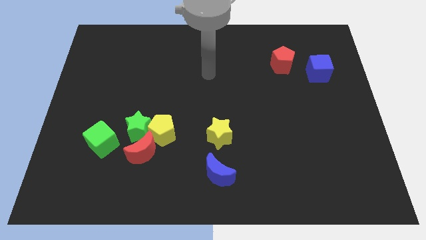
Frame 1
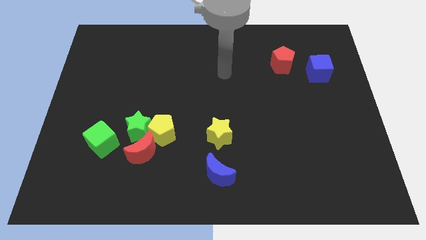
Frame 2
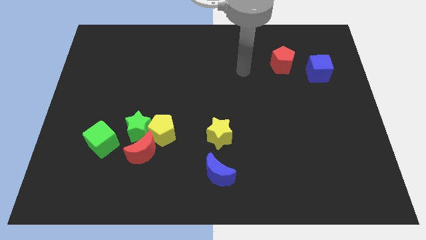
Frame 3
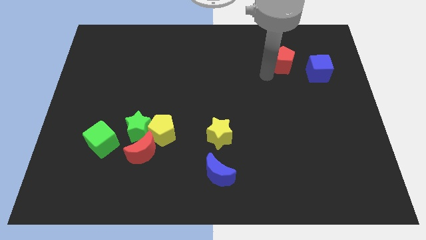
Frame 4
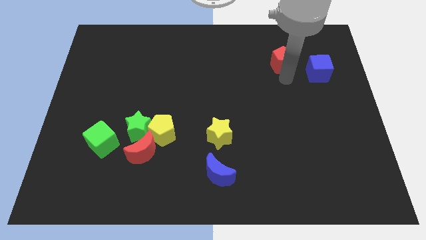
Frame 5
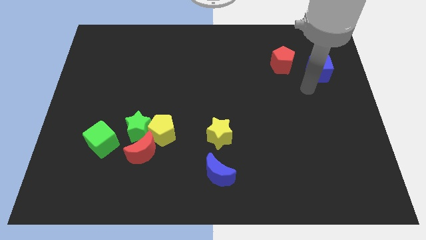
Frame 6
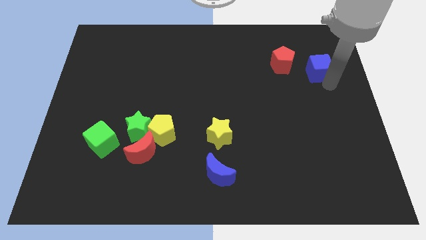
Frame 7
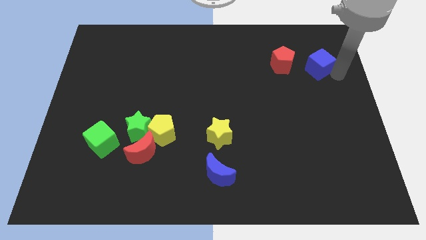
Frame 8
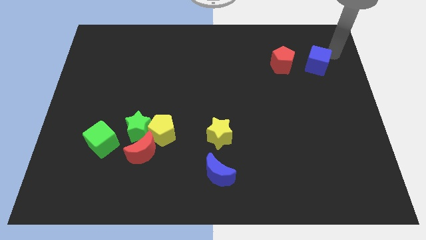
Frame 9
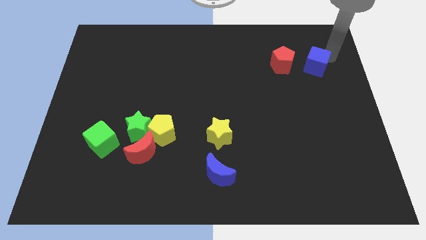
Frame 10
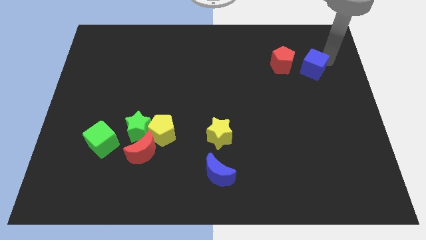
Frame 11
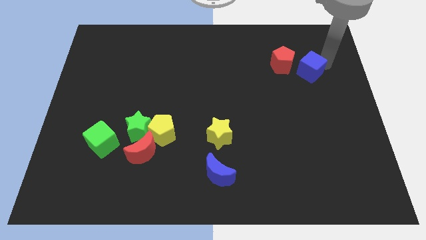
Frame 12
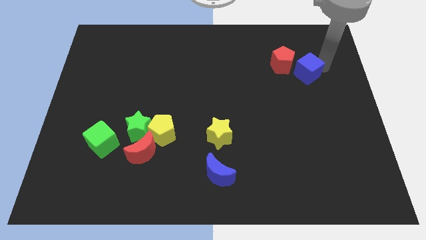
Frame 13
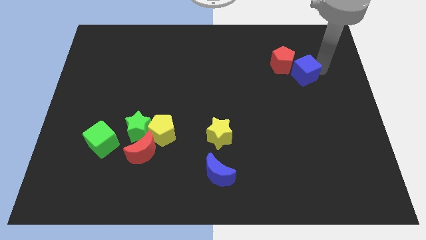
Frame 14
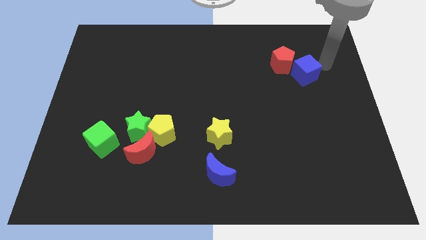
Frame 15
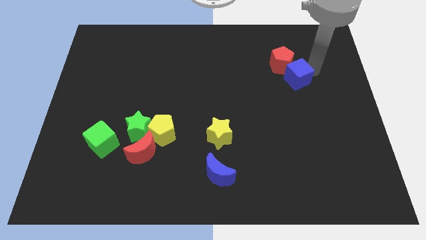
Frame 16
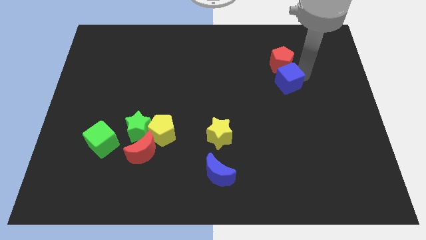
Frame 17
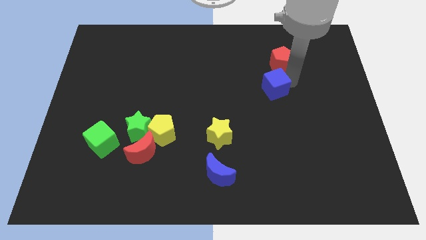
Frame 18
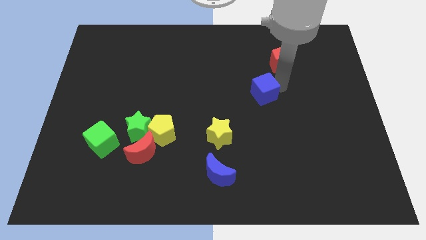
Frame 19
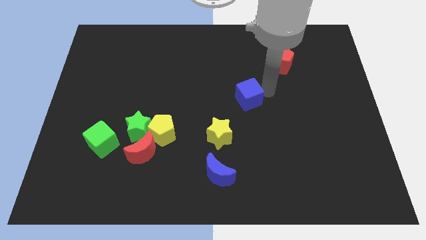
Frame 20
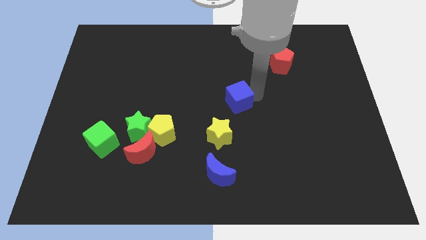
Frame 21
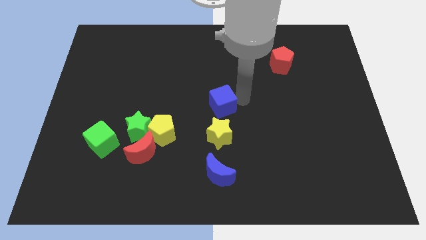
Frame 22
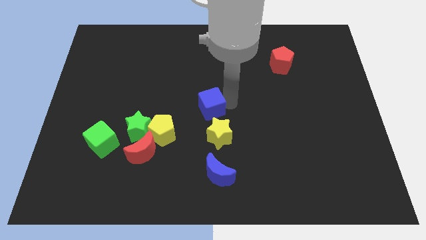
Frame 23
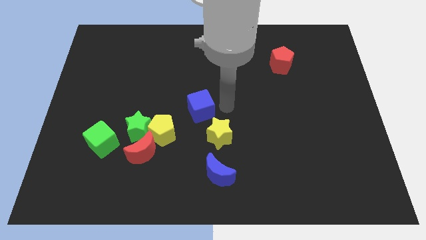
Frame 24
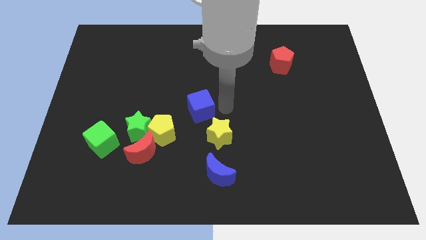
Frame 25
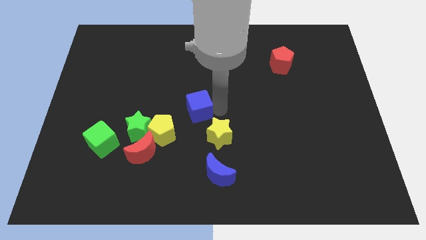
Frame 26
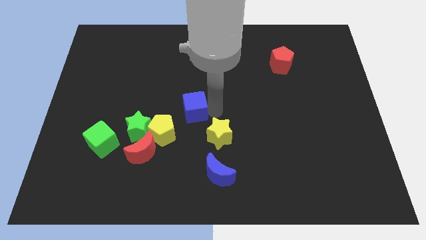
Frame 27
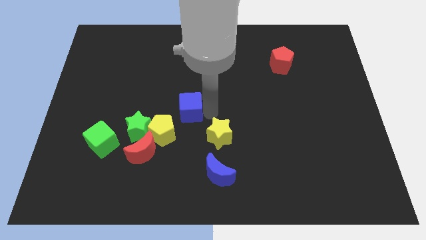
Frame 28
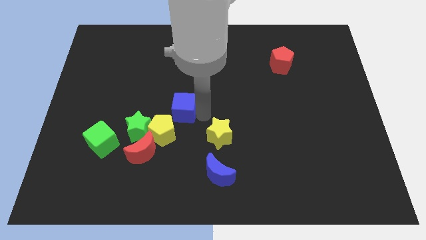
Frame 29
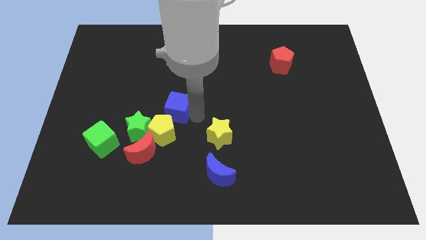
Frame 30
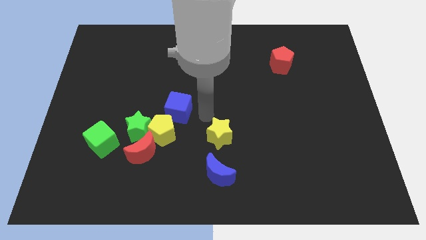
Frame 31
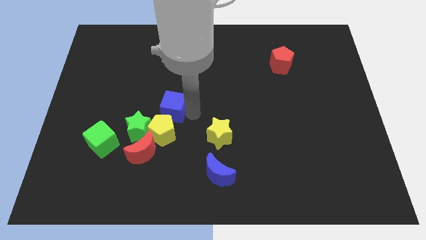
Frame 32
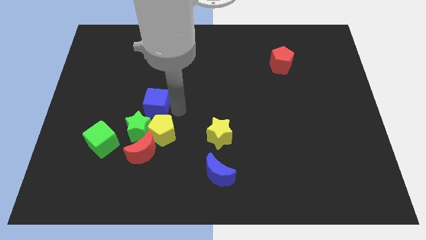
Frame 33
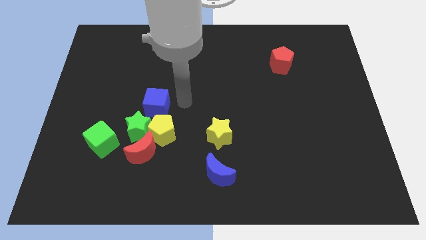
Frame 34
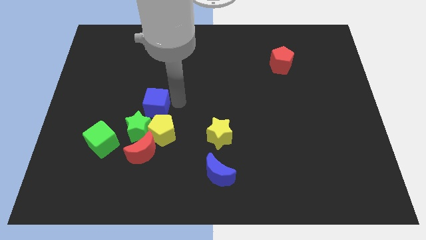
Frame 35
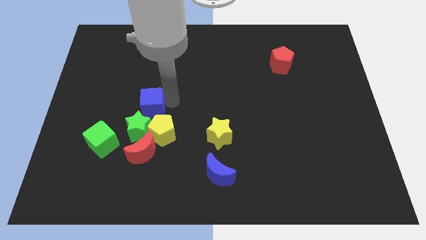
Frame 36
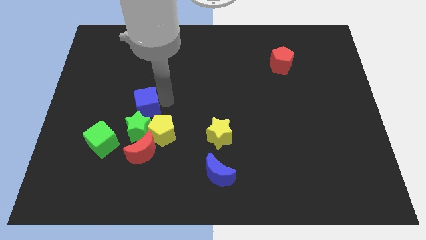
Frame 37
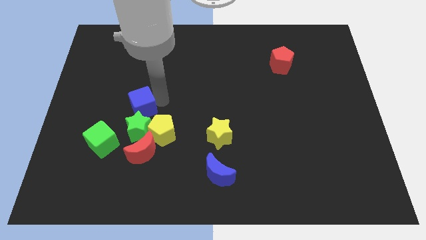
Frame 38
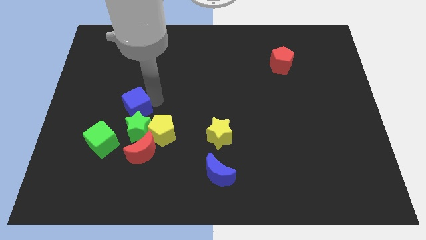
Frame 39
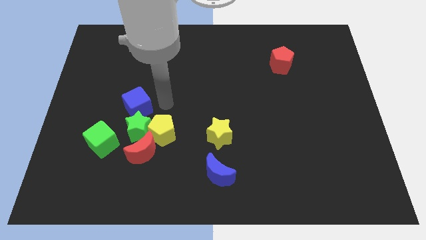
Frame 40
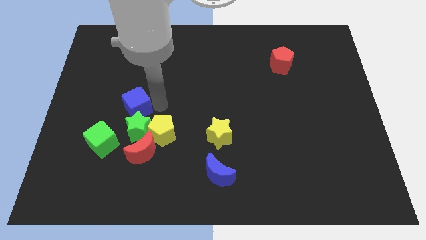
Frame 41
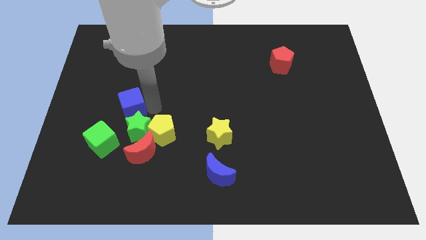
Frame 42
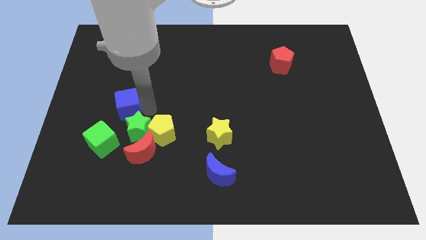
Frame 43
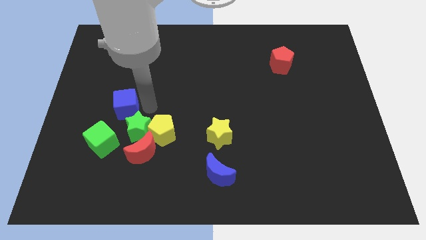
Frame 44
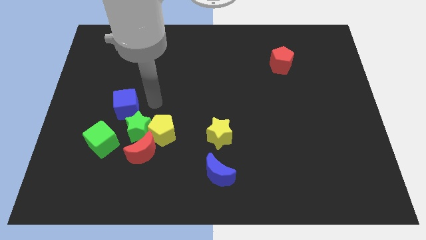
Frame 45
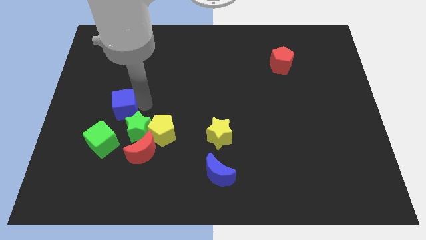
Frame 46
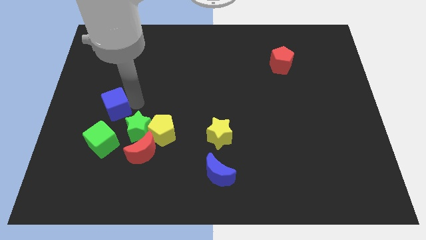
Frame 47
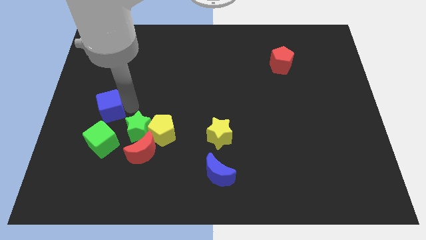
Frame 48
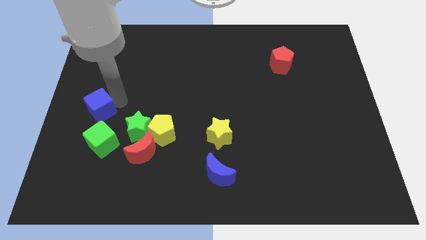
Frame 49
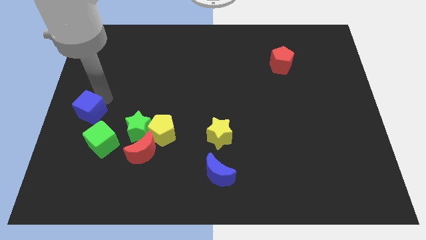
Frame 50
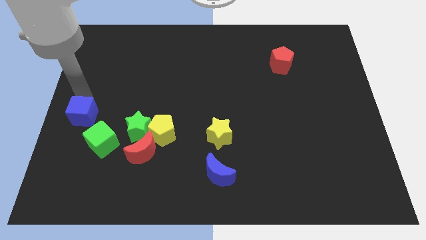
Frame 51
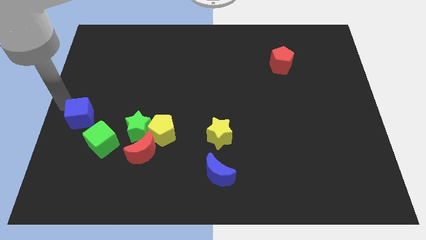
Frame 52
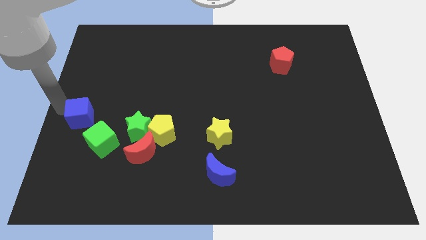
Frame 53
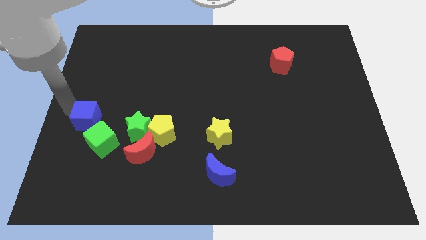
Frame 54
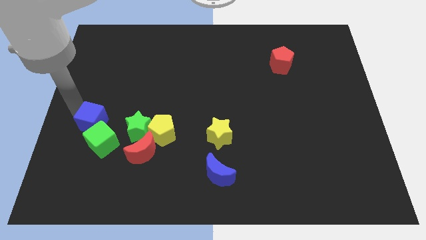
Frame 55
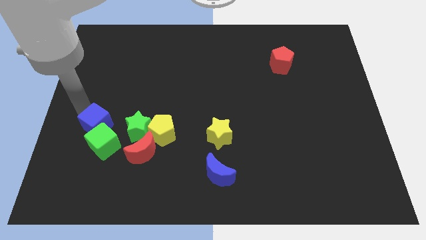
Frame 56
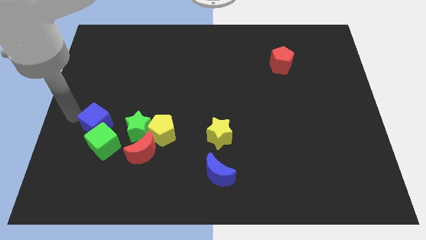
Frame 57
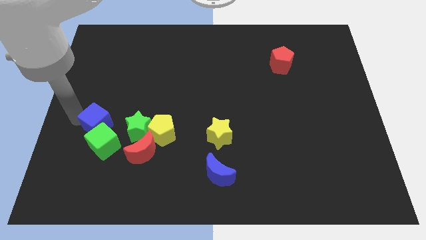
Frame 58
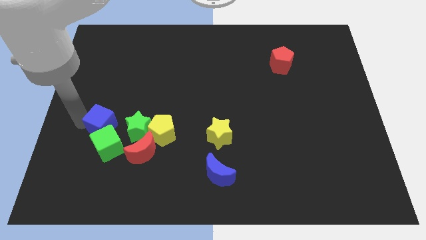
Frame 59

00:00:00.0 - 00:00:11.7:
move the blue cube to the top left side of the red moon
